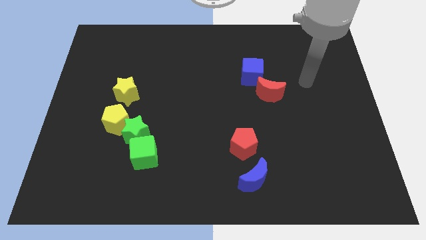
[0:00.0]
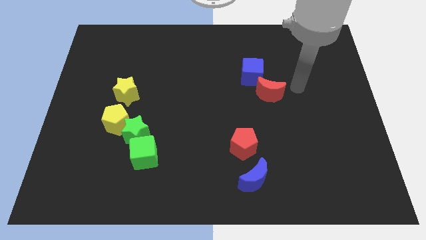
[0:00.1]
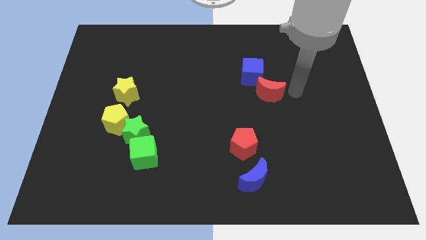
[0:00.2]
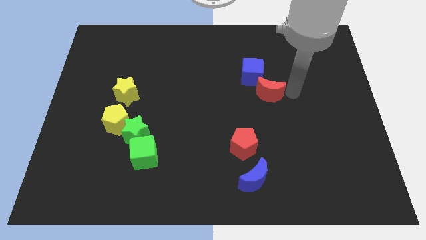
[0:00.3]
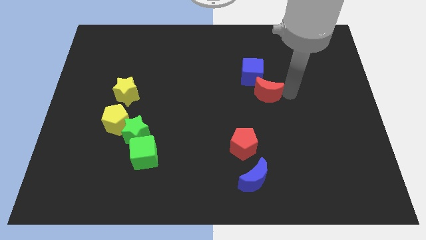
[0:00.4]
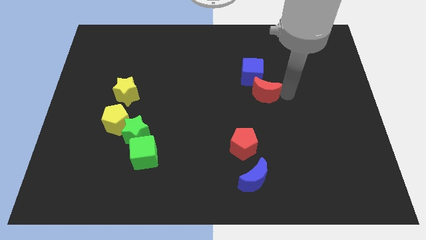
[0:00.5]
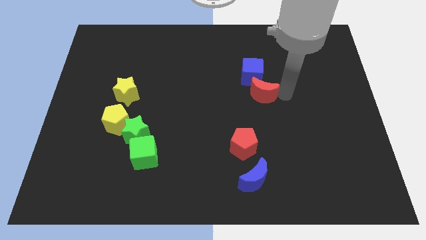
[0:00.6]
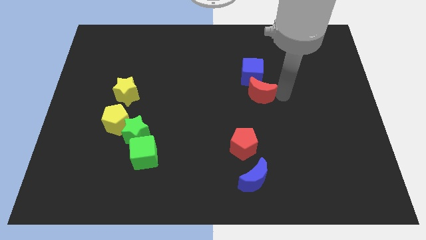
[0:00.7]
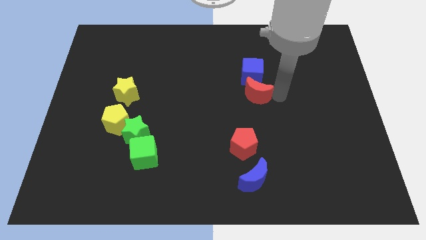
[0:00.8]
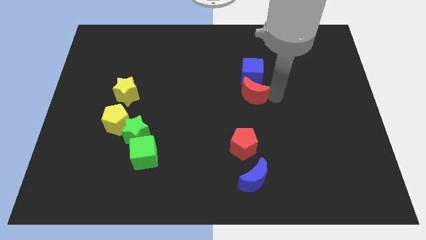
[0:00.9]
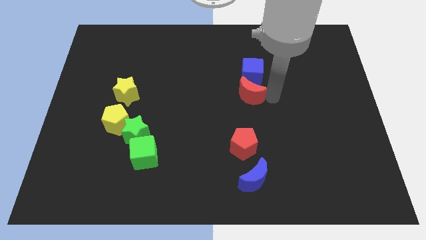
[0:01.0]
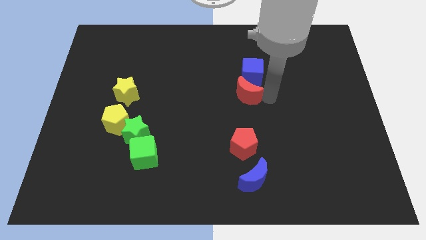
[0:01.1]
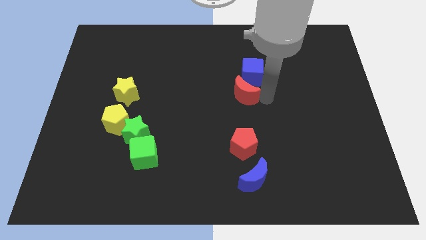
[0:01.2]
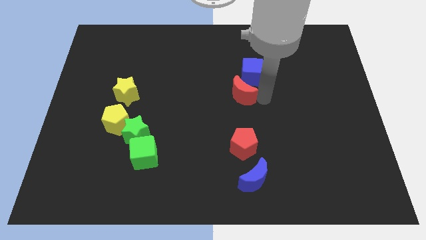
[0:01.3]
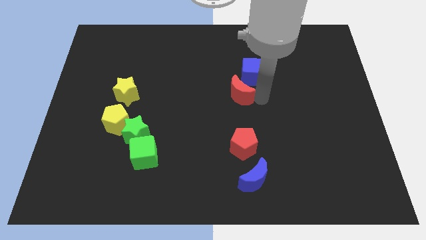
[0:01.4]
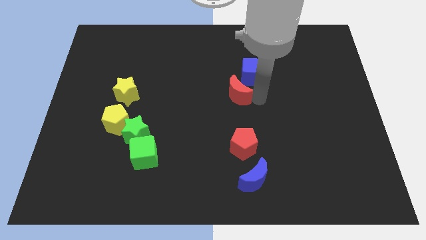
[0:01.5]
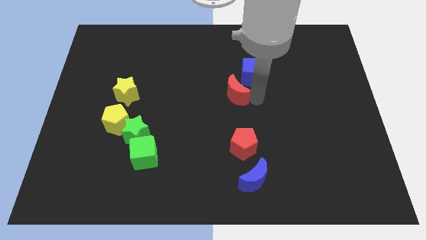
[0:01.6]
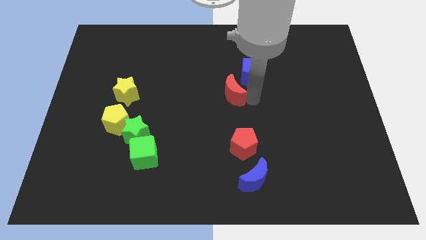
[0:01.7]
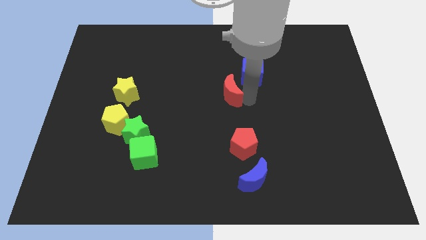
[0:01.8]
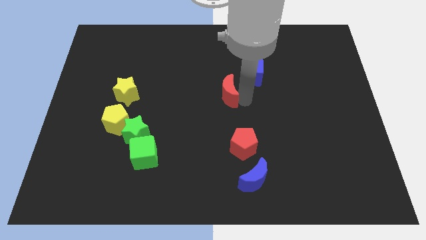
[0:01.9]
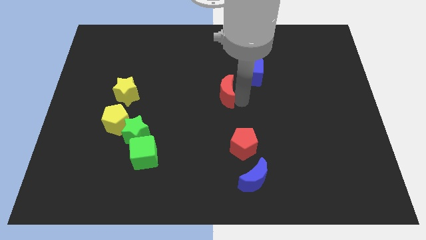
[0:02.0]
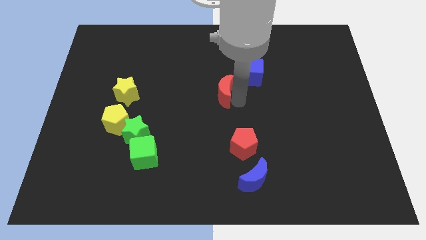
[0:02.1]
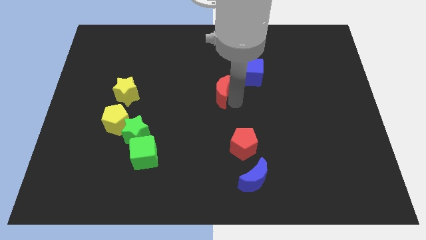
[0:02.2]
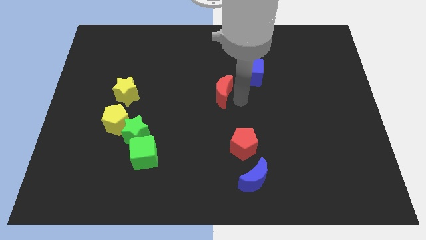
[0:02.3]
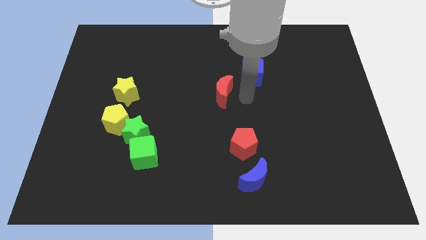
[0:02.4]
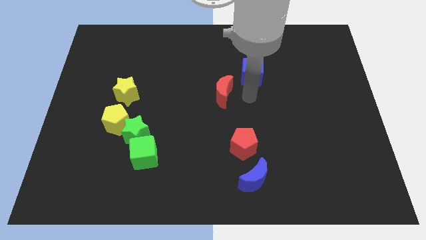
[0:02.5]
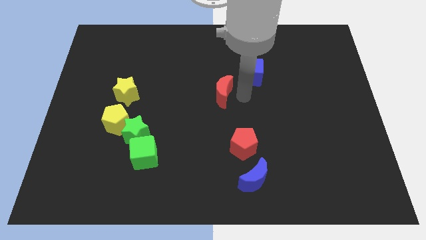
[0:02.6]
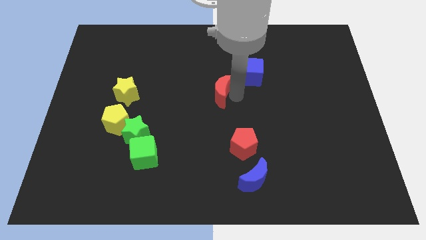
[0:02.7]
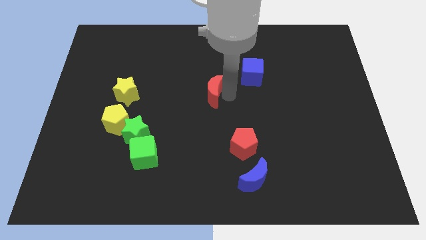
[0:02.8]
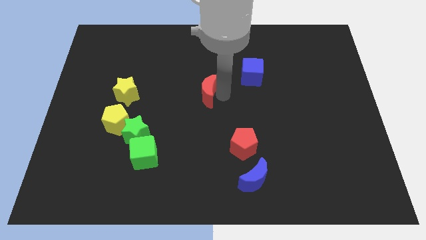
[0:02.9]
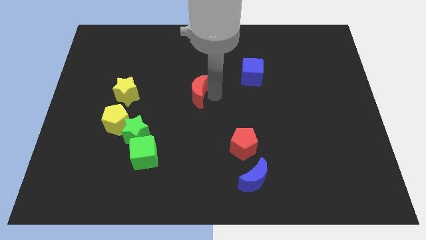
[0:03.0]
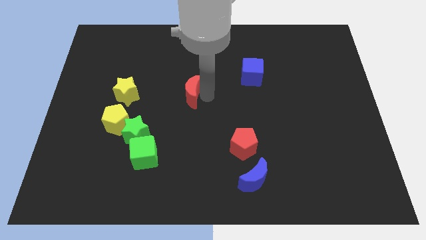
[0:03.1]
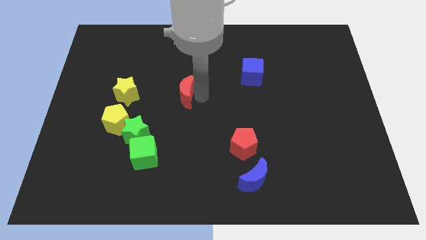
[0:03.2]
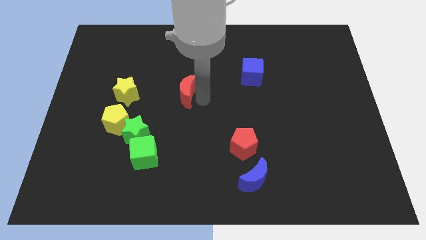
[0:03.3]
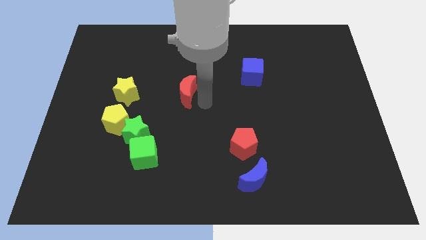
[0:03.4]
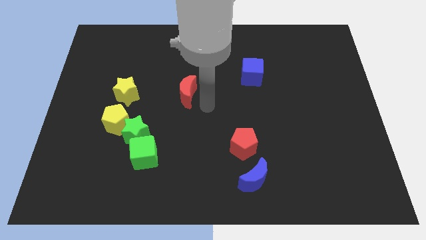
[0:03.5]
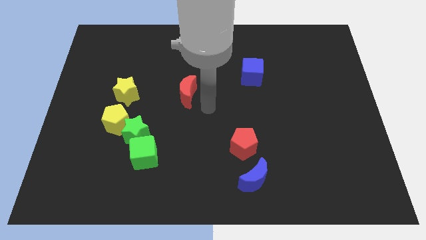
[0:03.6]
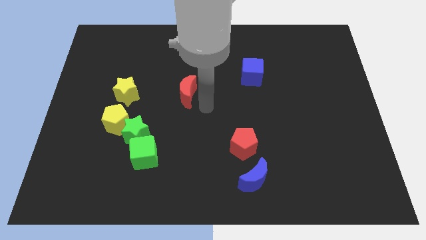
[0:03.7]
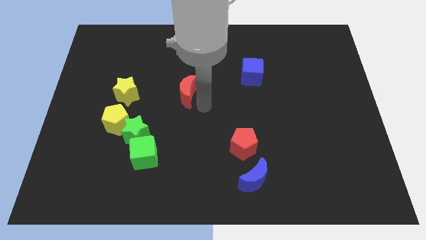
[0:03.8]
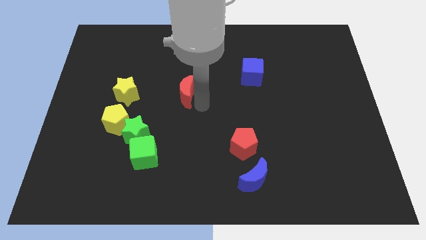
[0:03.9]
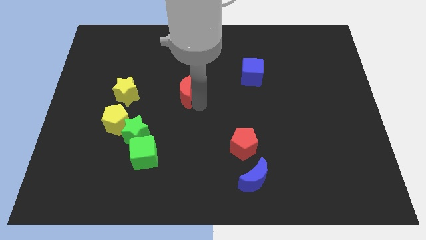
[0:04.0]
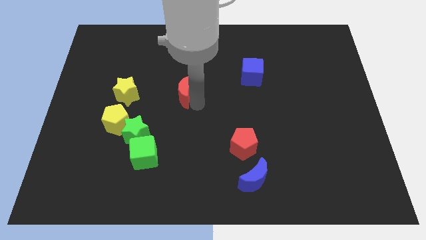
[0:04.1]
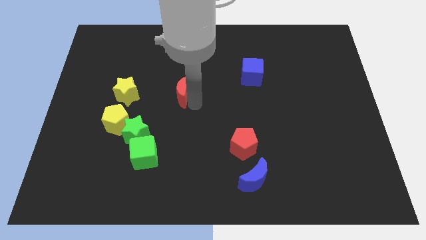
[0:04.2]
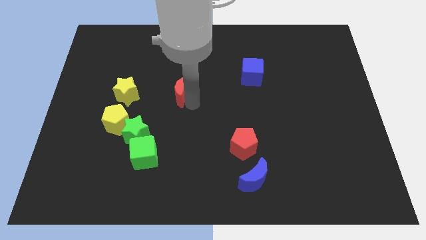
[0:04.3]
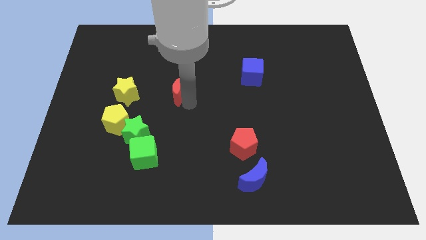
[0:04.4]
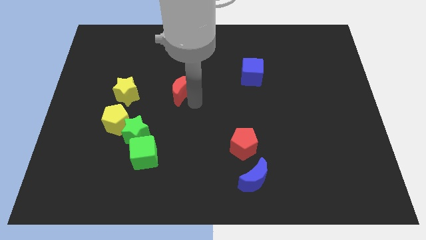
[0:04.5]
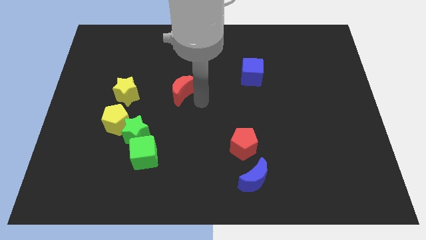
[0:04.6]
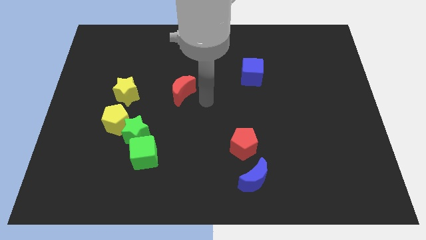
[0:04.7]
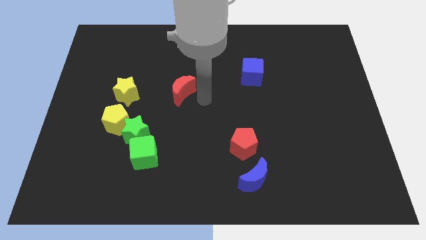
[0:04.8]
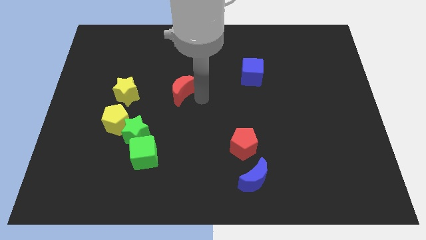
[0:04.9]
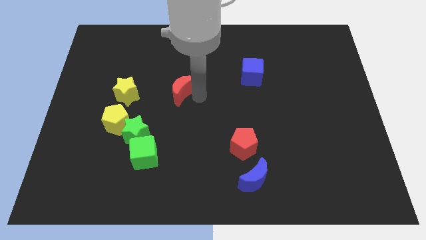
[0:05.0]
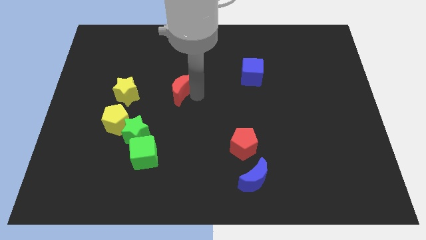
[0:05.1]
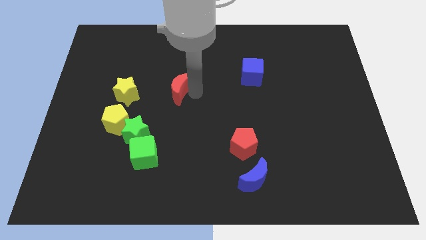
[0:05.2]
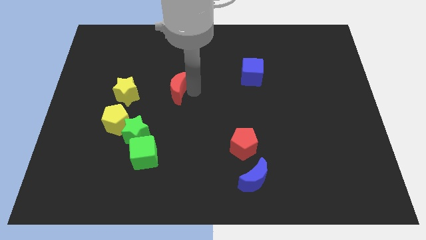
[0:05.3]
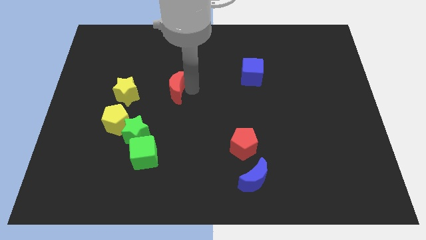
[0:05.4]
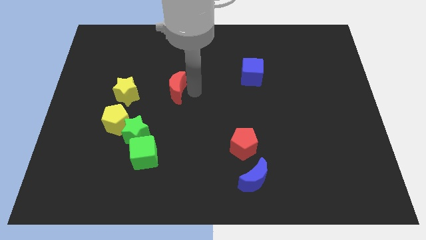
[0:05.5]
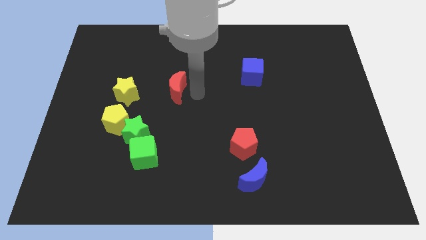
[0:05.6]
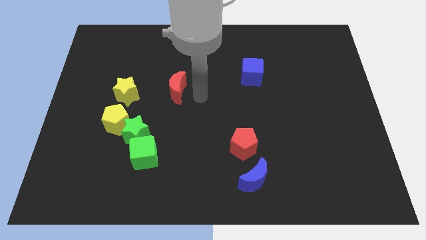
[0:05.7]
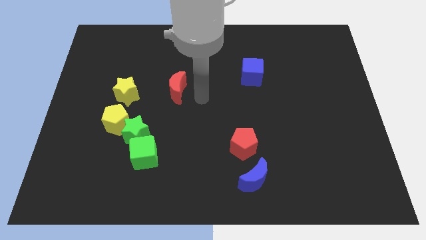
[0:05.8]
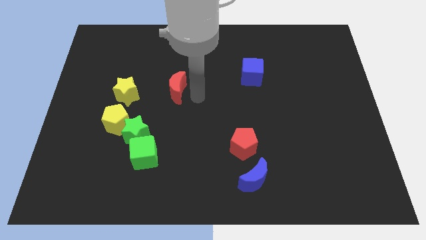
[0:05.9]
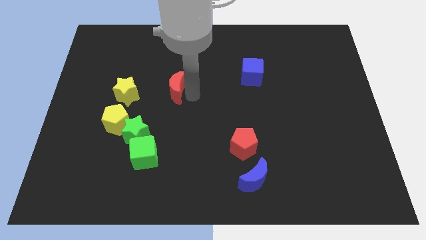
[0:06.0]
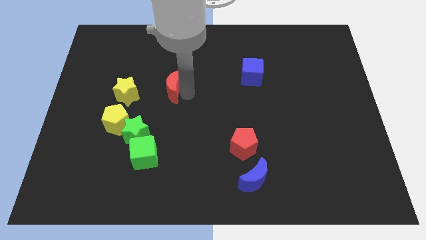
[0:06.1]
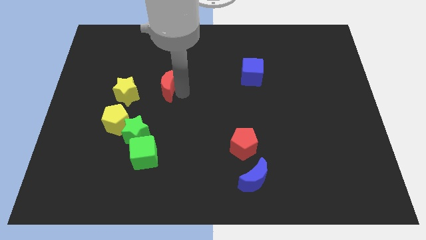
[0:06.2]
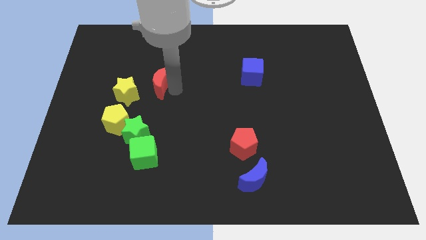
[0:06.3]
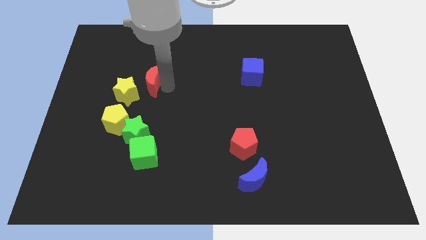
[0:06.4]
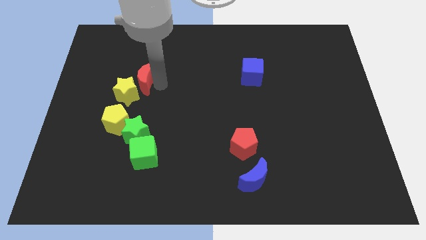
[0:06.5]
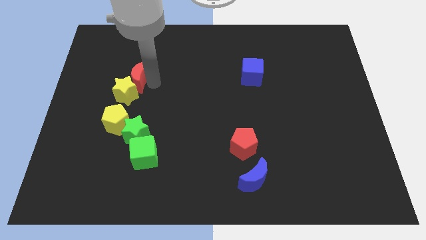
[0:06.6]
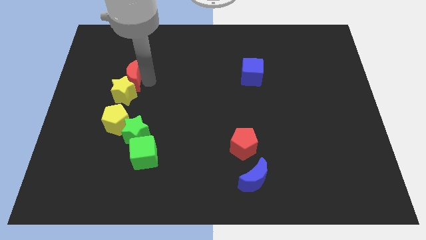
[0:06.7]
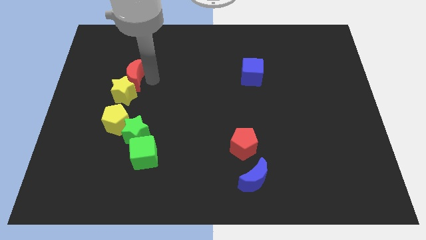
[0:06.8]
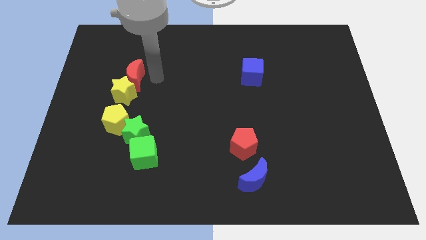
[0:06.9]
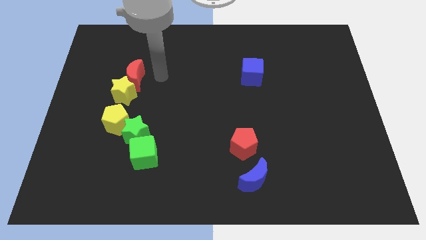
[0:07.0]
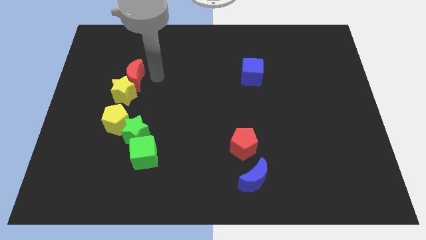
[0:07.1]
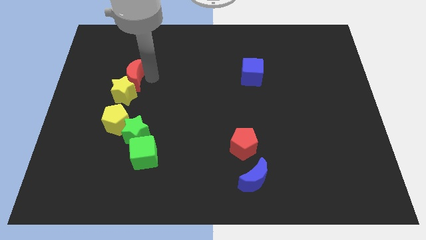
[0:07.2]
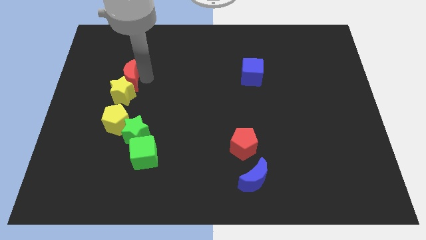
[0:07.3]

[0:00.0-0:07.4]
slide the red moon to the top left side of the yellow star
